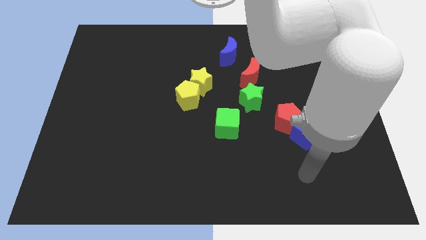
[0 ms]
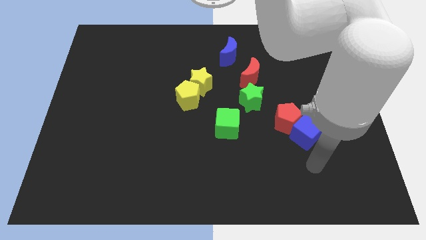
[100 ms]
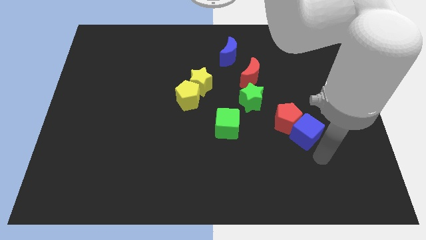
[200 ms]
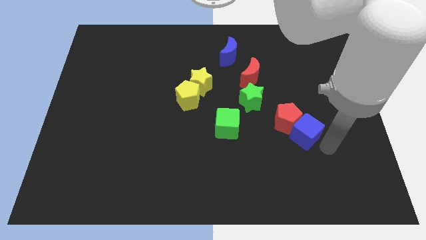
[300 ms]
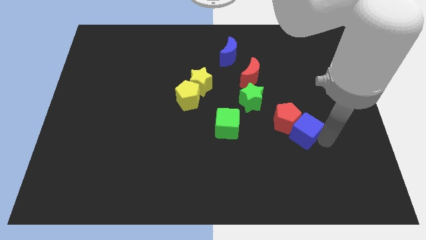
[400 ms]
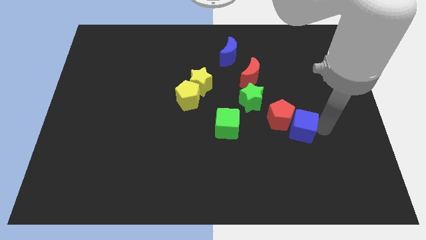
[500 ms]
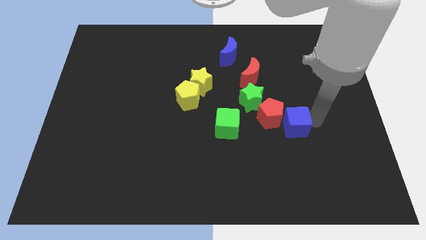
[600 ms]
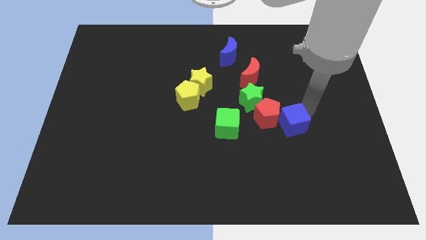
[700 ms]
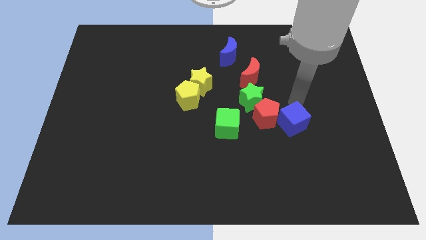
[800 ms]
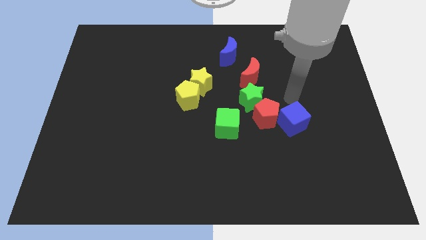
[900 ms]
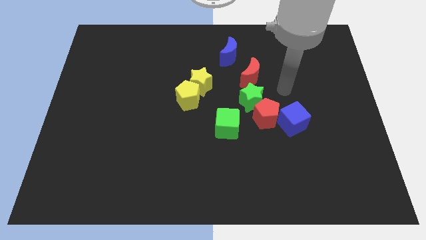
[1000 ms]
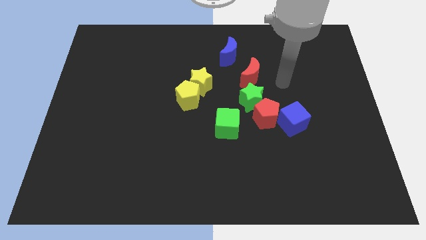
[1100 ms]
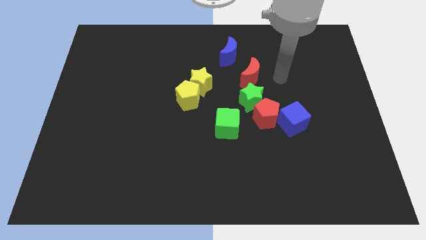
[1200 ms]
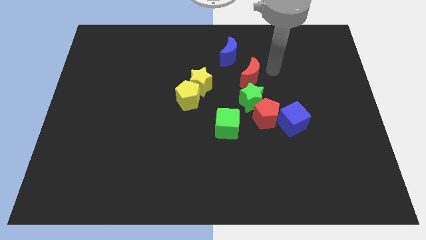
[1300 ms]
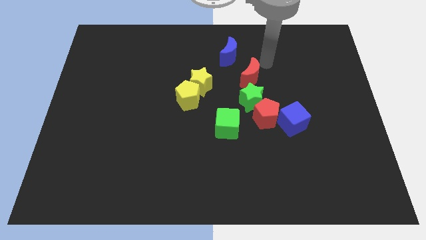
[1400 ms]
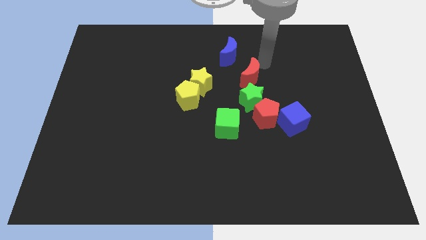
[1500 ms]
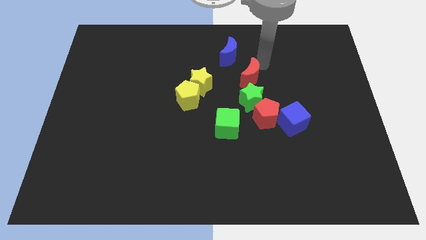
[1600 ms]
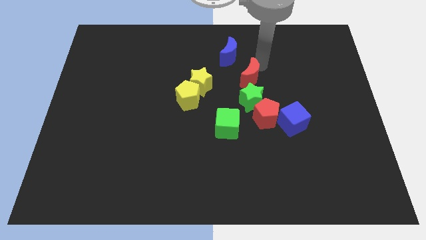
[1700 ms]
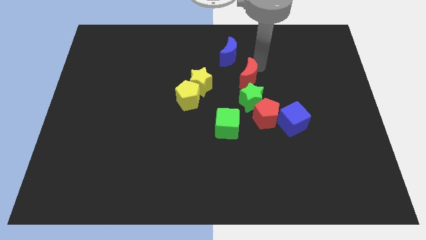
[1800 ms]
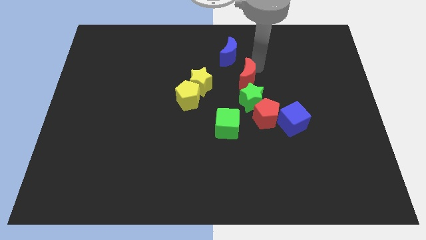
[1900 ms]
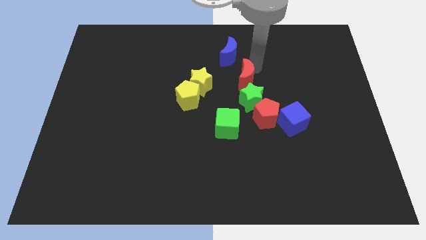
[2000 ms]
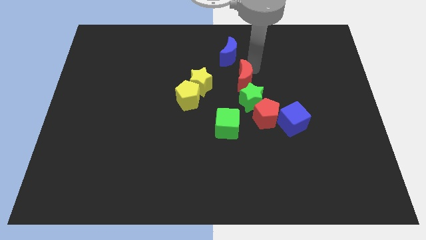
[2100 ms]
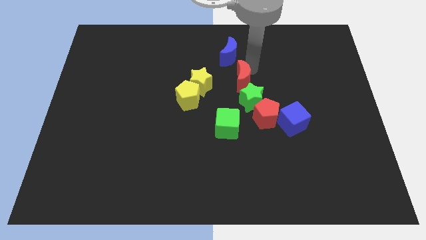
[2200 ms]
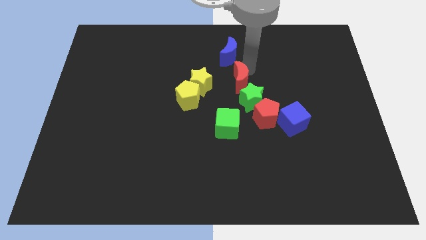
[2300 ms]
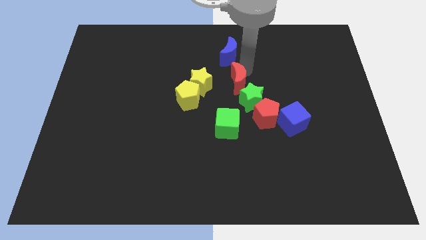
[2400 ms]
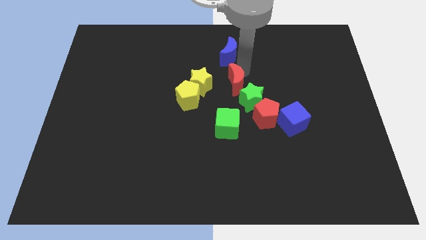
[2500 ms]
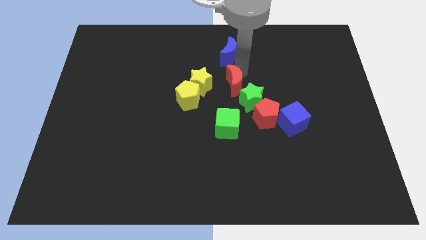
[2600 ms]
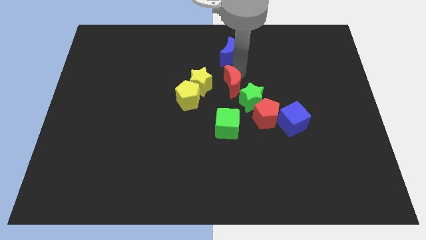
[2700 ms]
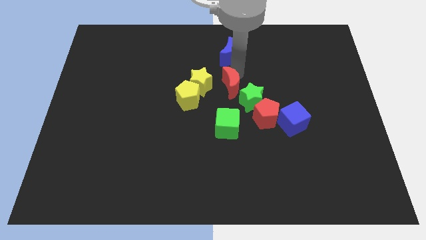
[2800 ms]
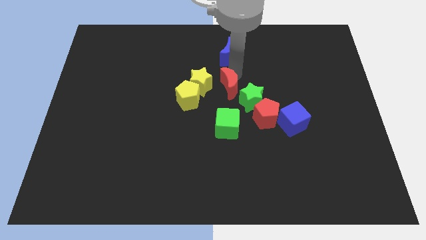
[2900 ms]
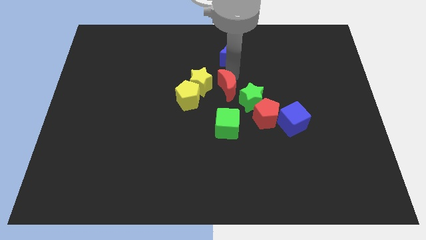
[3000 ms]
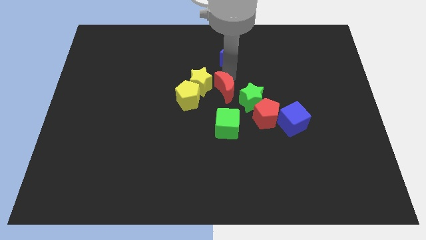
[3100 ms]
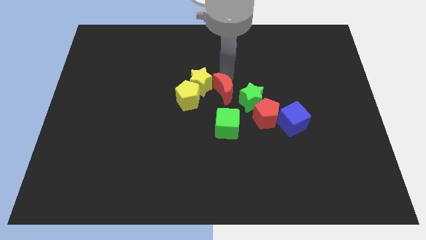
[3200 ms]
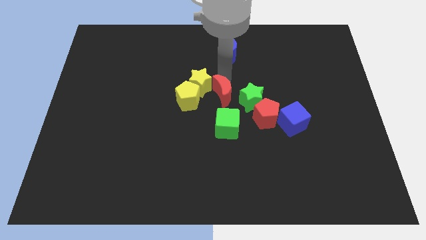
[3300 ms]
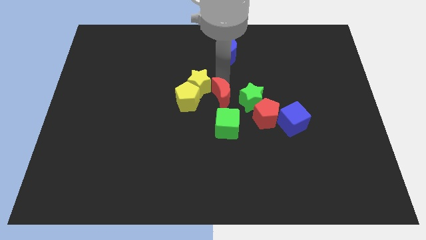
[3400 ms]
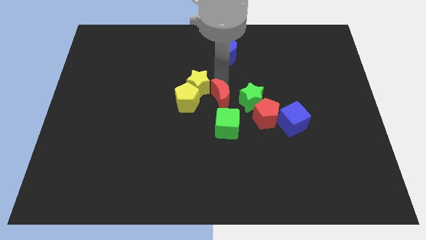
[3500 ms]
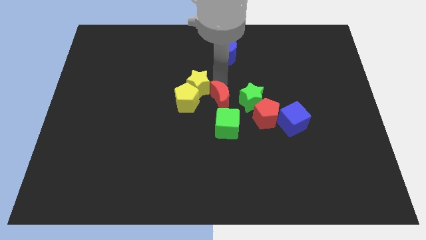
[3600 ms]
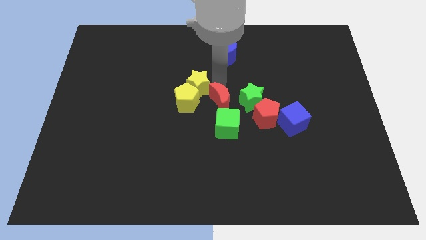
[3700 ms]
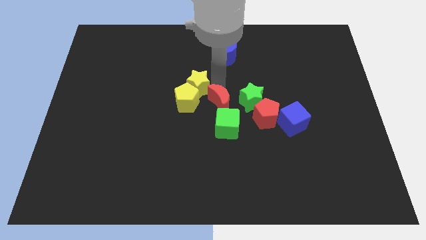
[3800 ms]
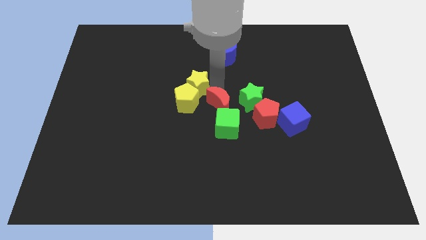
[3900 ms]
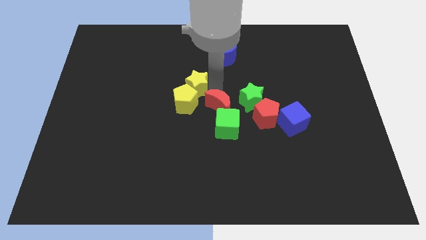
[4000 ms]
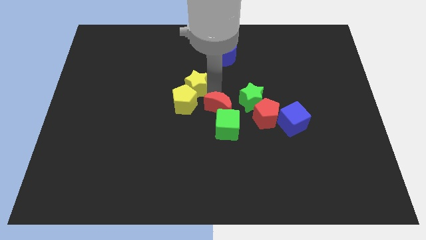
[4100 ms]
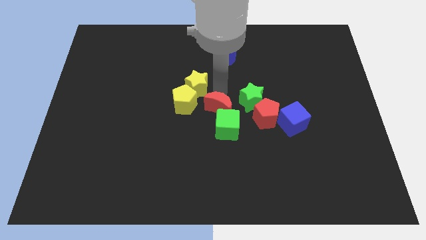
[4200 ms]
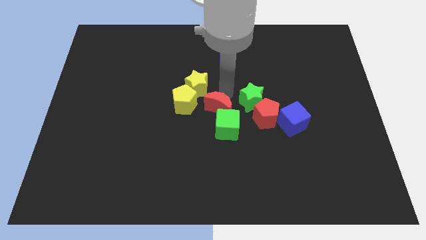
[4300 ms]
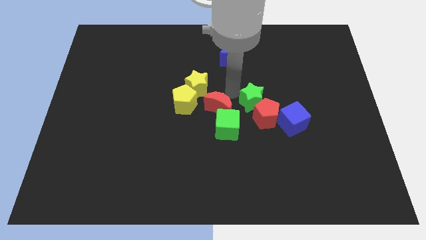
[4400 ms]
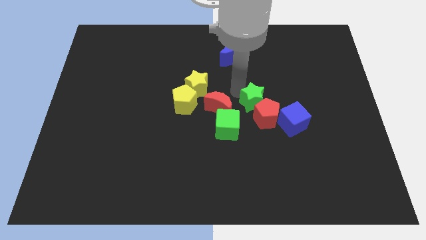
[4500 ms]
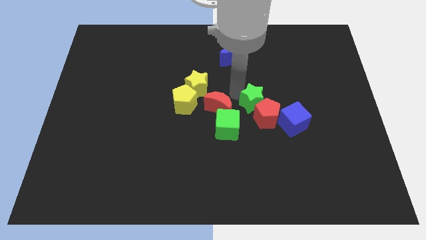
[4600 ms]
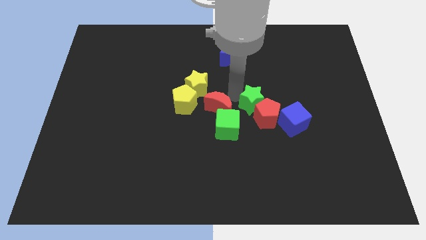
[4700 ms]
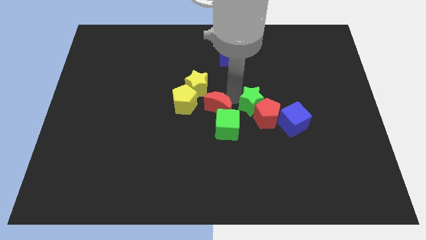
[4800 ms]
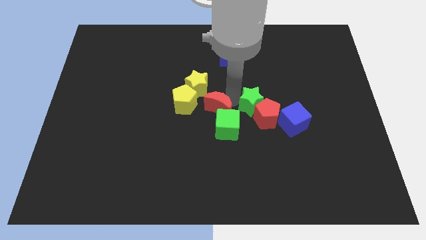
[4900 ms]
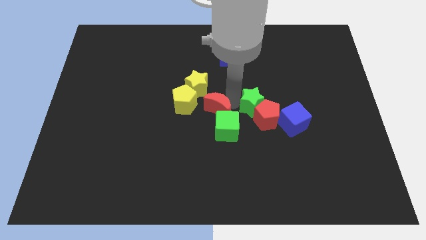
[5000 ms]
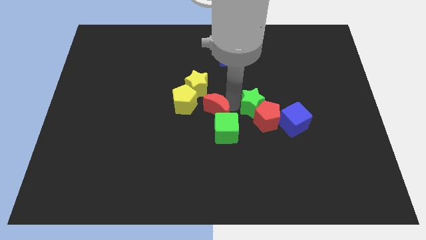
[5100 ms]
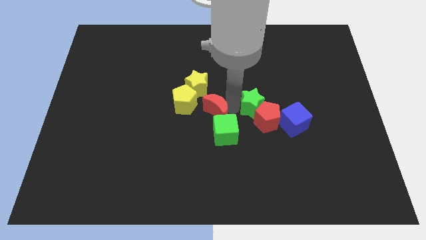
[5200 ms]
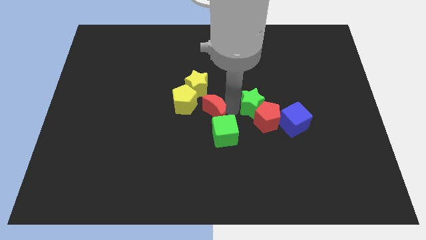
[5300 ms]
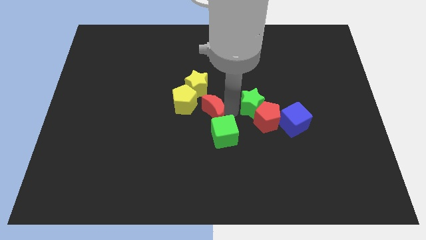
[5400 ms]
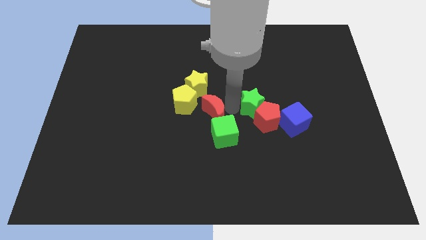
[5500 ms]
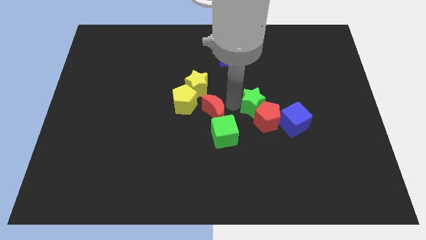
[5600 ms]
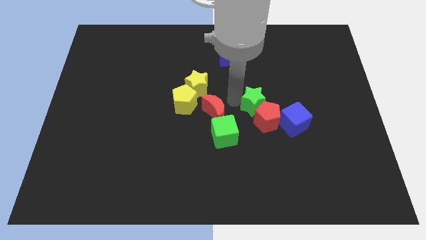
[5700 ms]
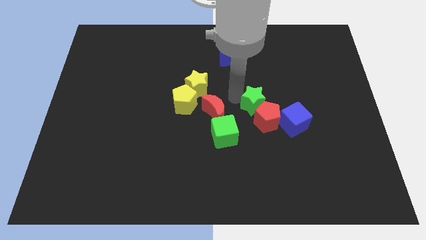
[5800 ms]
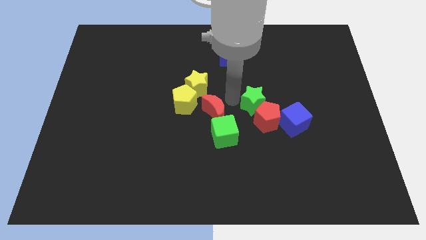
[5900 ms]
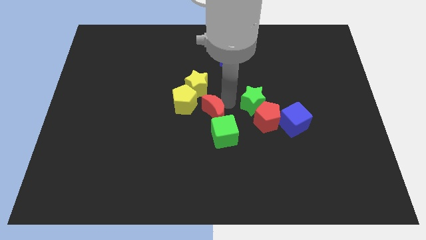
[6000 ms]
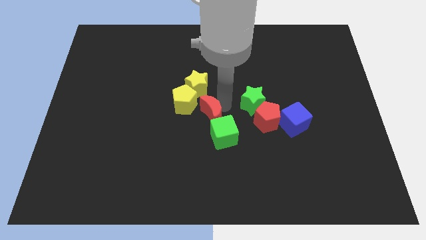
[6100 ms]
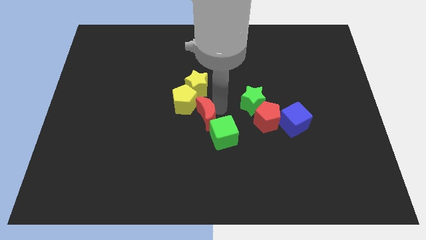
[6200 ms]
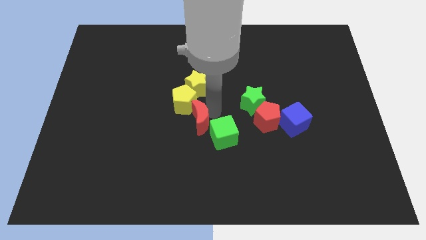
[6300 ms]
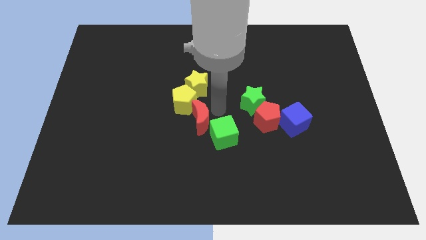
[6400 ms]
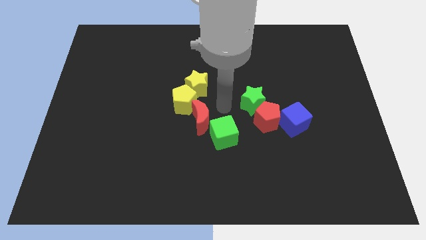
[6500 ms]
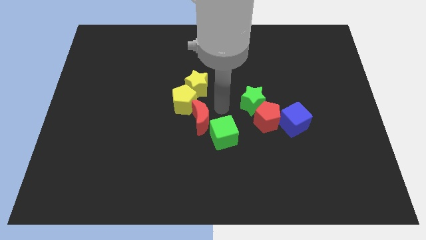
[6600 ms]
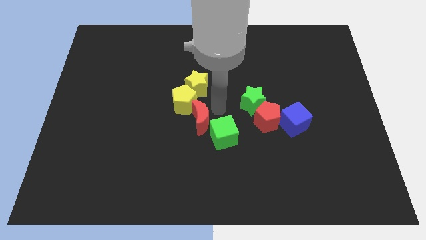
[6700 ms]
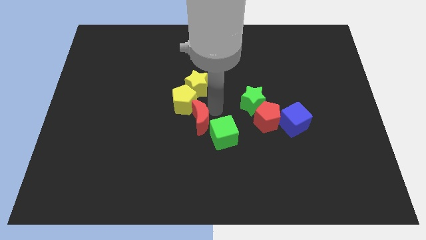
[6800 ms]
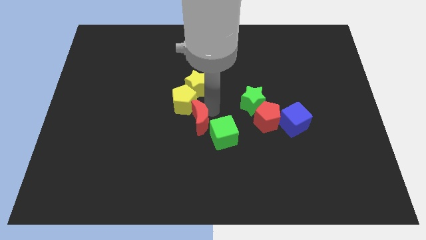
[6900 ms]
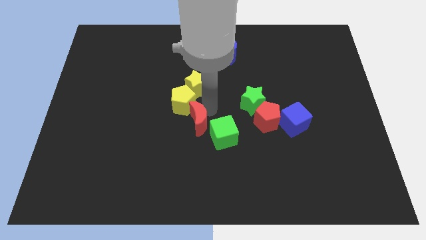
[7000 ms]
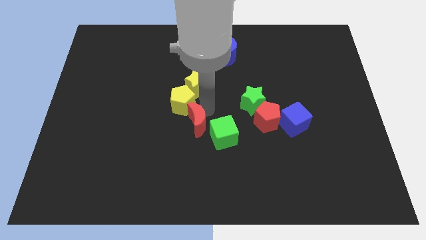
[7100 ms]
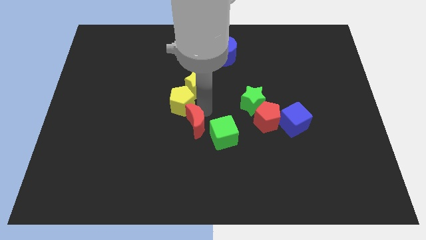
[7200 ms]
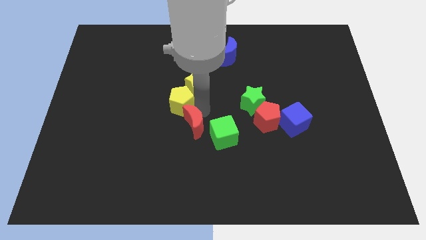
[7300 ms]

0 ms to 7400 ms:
slide the red moon diagonally down and left

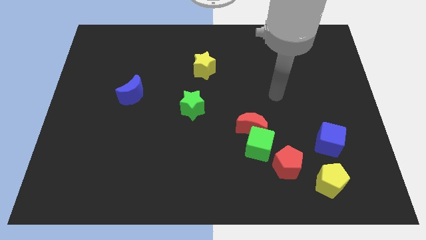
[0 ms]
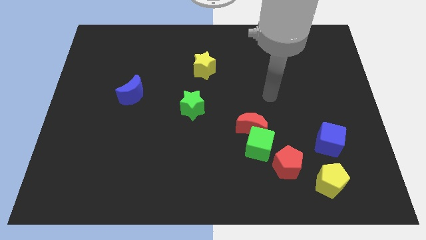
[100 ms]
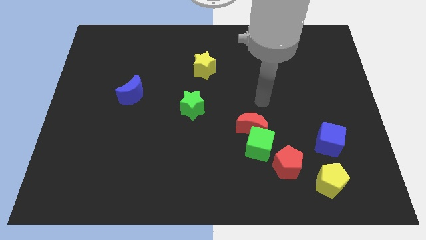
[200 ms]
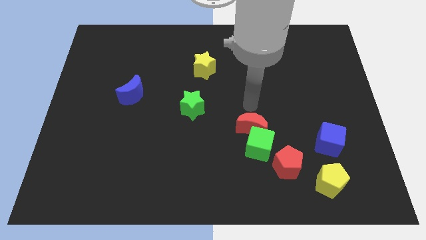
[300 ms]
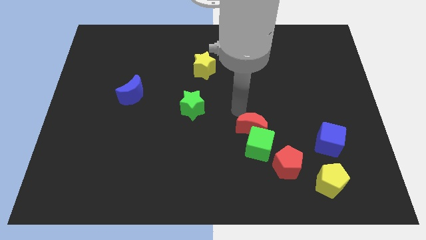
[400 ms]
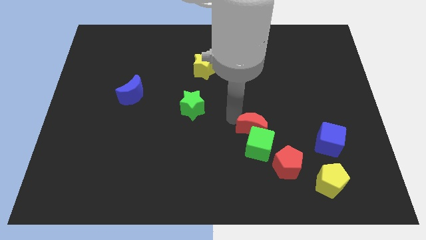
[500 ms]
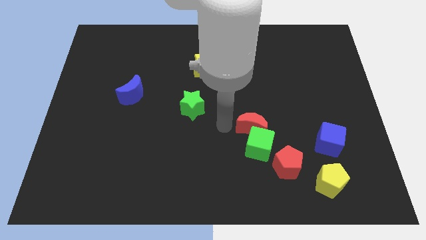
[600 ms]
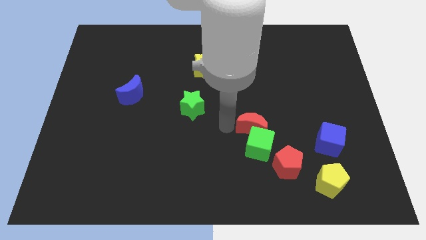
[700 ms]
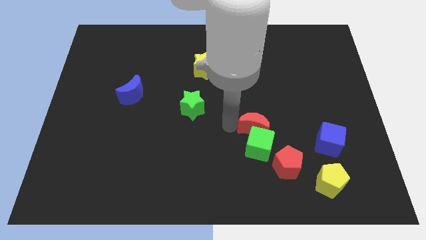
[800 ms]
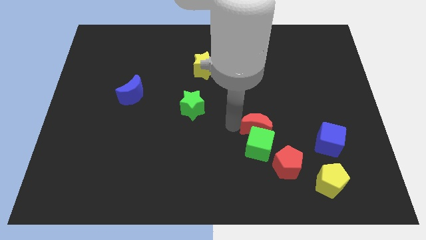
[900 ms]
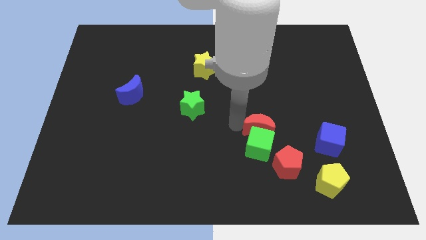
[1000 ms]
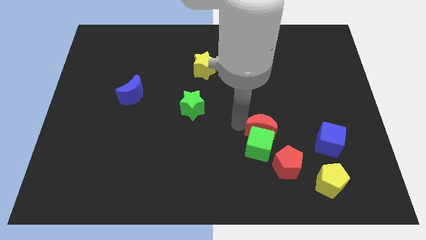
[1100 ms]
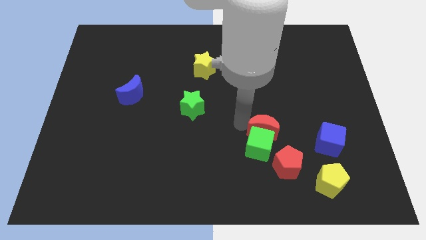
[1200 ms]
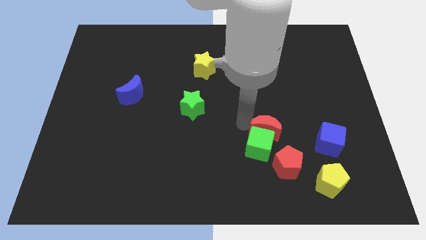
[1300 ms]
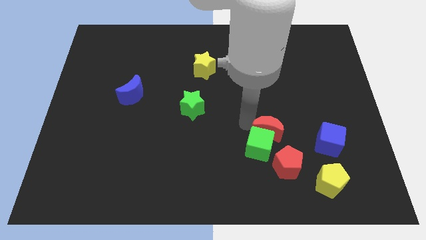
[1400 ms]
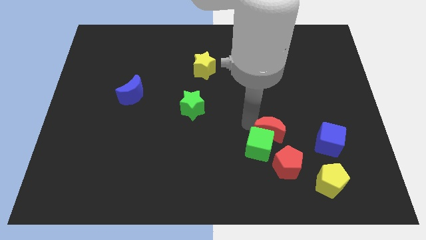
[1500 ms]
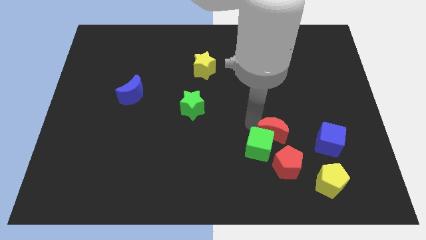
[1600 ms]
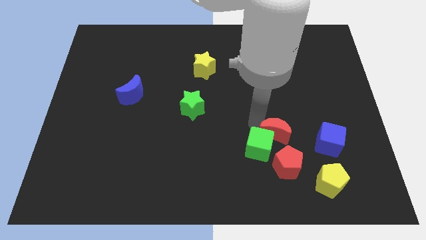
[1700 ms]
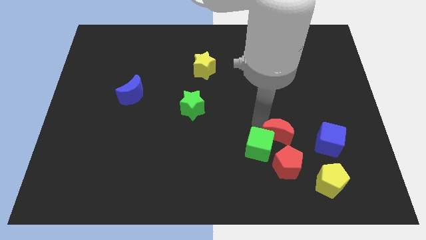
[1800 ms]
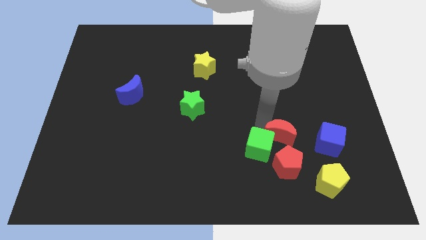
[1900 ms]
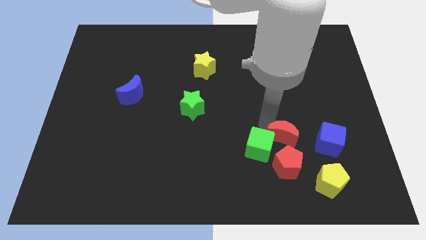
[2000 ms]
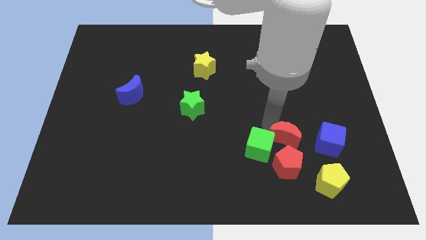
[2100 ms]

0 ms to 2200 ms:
push the red moon to the right a little
